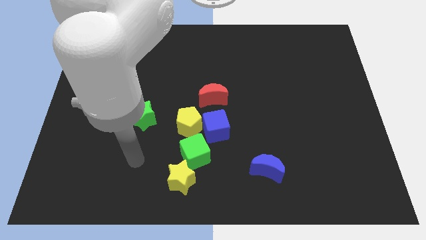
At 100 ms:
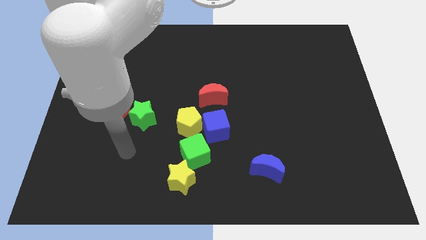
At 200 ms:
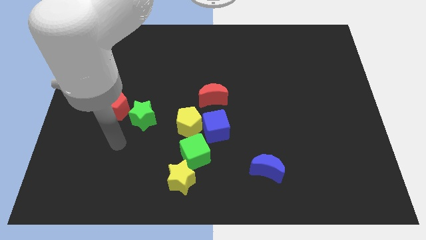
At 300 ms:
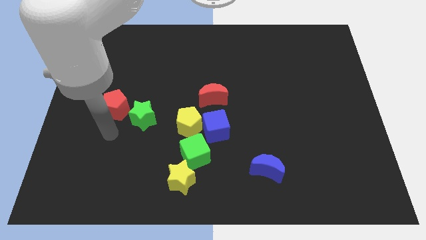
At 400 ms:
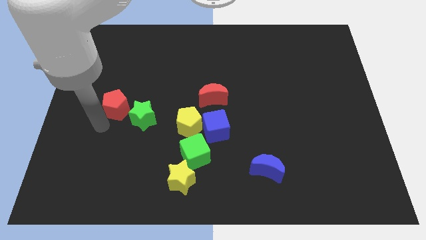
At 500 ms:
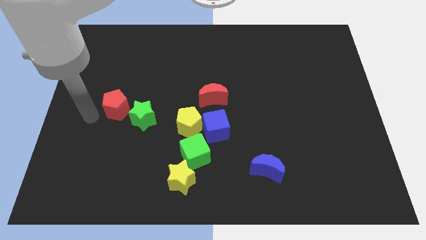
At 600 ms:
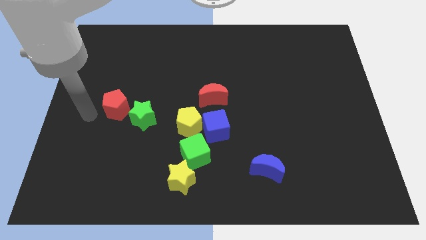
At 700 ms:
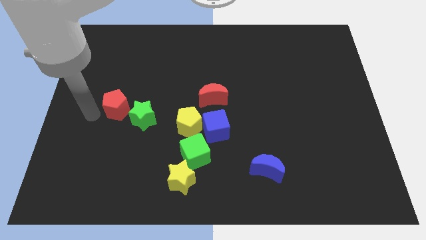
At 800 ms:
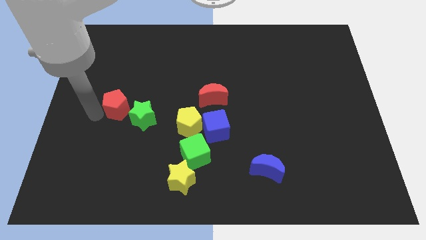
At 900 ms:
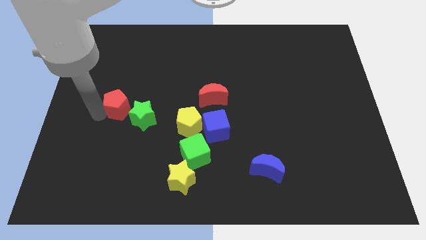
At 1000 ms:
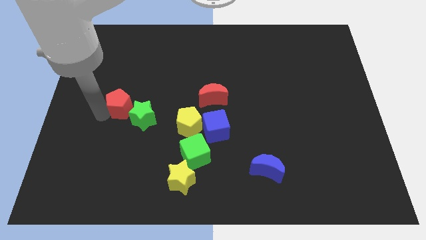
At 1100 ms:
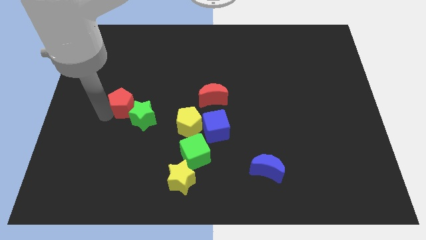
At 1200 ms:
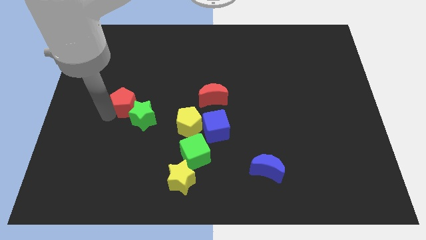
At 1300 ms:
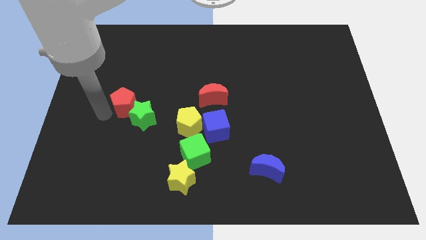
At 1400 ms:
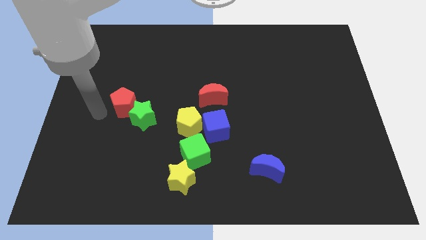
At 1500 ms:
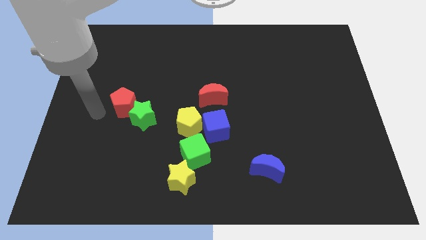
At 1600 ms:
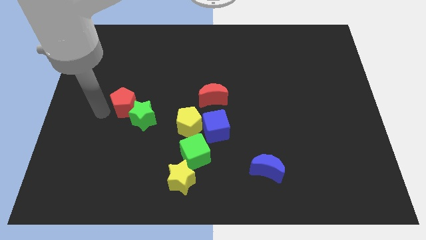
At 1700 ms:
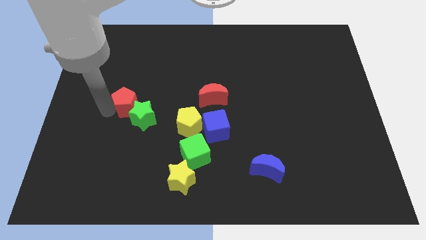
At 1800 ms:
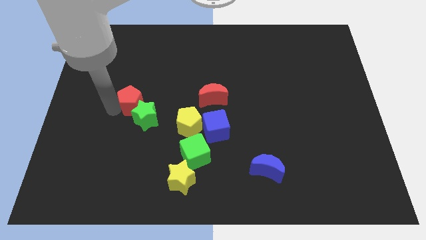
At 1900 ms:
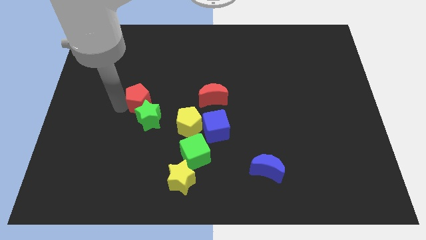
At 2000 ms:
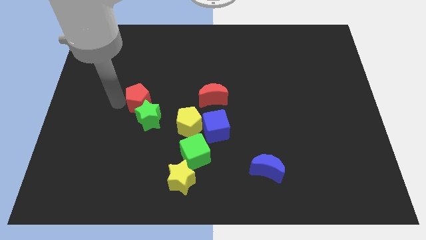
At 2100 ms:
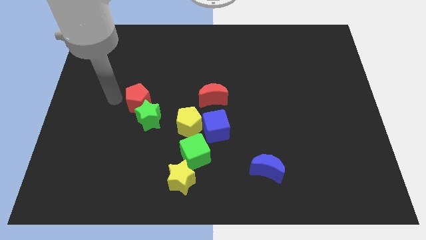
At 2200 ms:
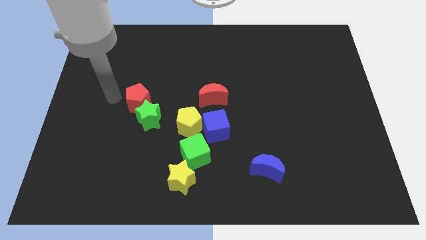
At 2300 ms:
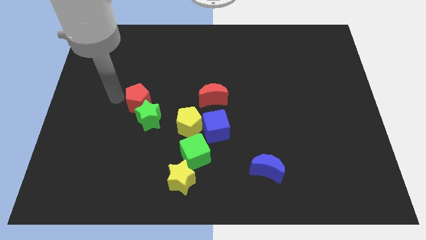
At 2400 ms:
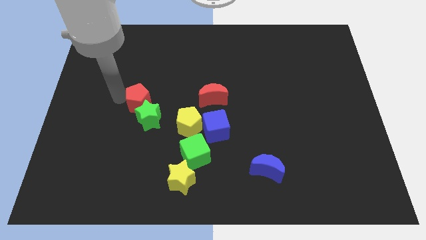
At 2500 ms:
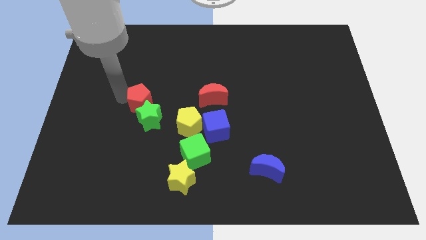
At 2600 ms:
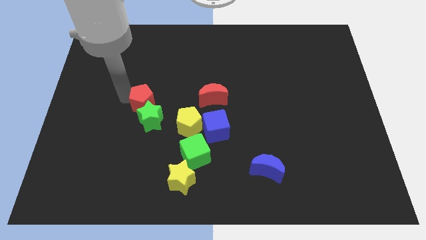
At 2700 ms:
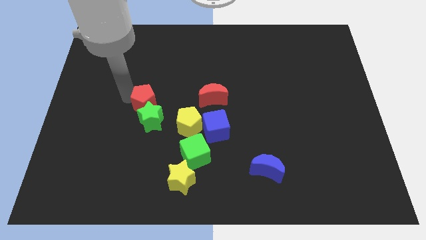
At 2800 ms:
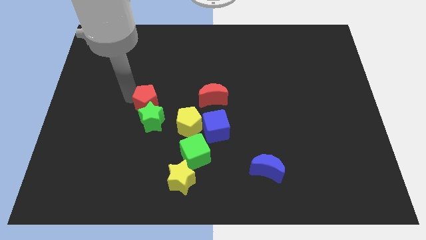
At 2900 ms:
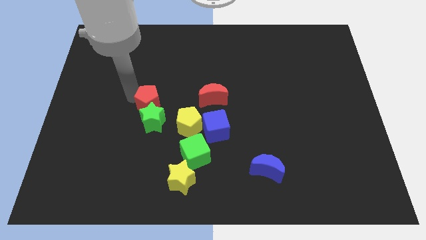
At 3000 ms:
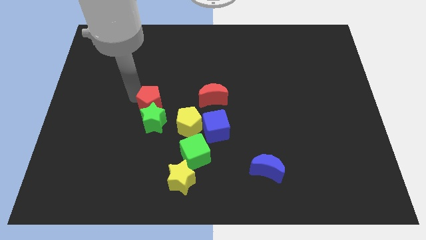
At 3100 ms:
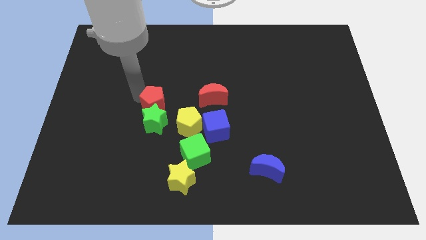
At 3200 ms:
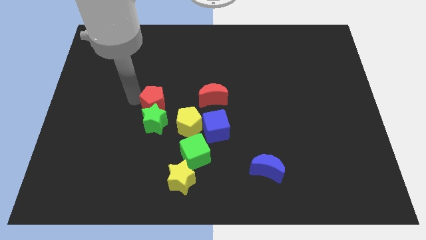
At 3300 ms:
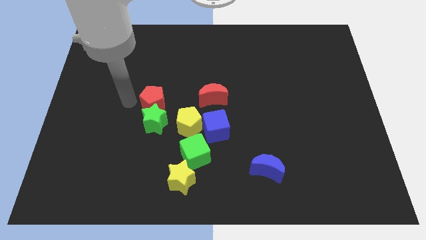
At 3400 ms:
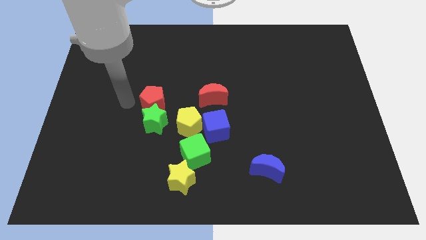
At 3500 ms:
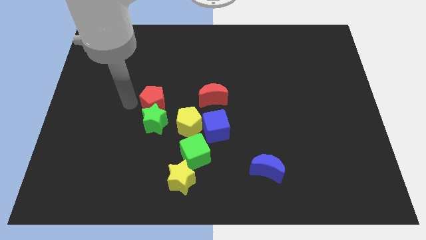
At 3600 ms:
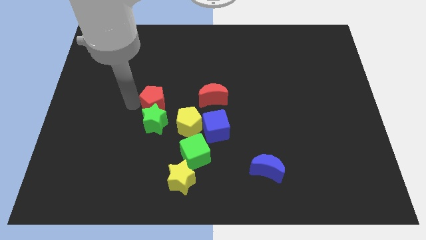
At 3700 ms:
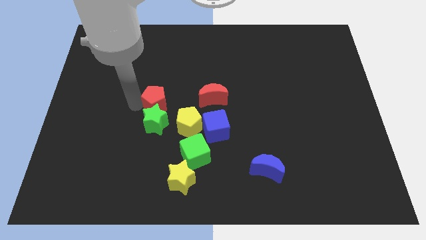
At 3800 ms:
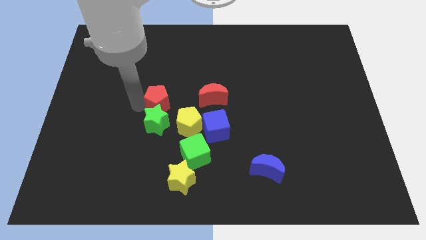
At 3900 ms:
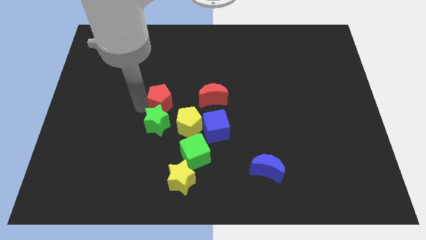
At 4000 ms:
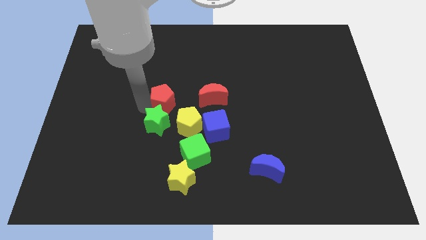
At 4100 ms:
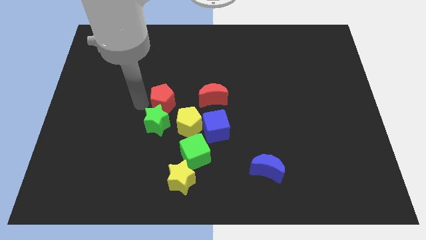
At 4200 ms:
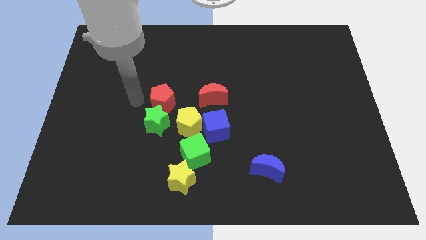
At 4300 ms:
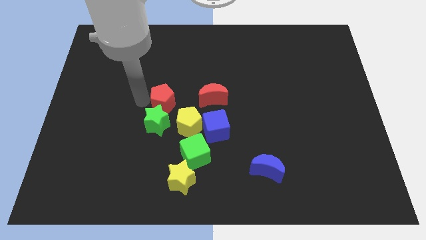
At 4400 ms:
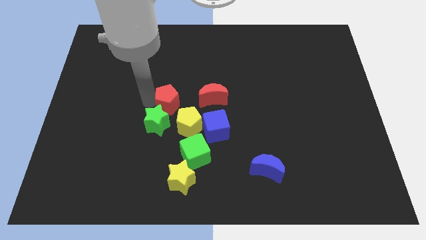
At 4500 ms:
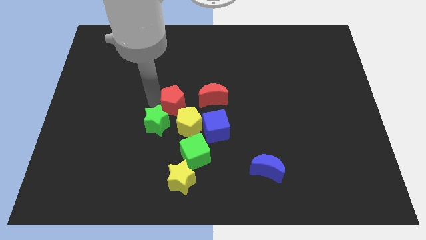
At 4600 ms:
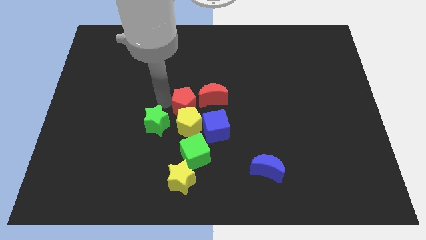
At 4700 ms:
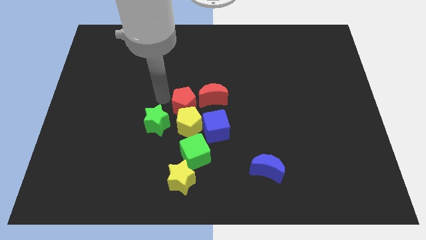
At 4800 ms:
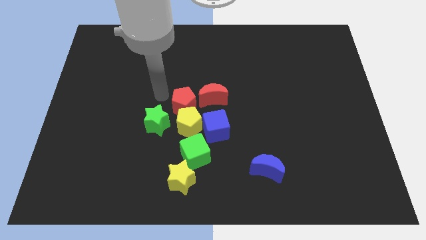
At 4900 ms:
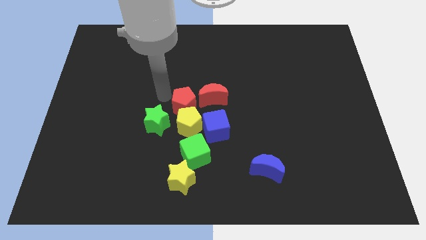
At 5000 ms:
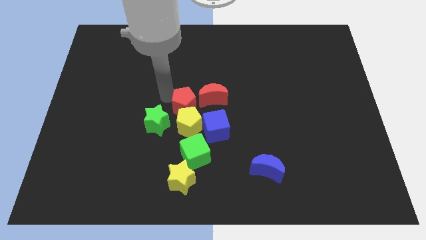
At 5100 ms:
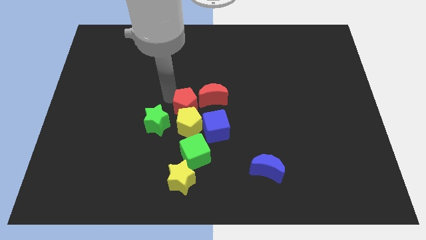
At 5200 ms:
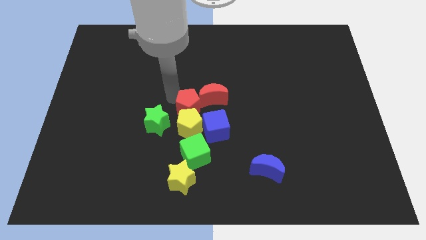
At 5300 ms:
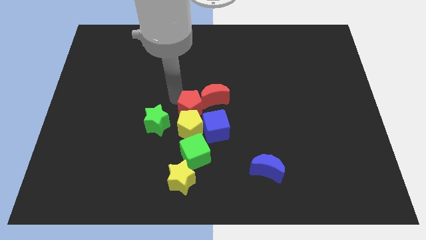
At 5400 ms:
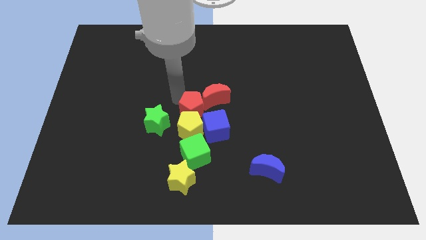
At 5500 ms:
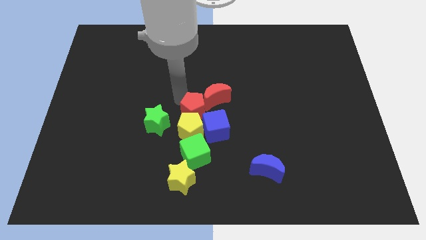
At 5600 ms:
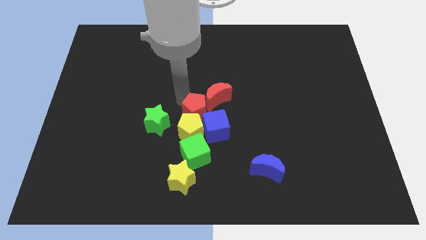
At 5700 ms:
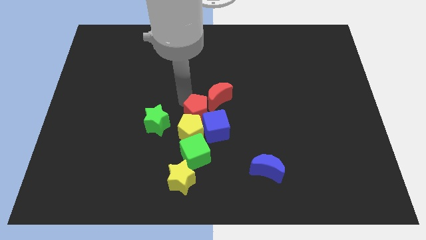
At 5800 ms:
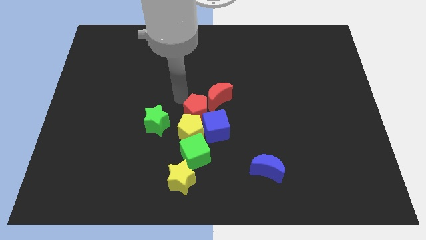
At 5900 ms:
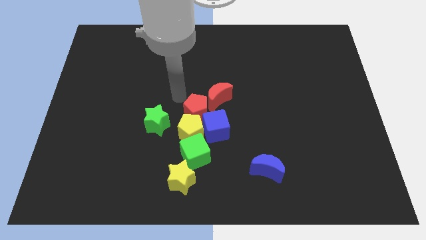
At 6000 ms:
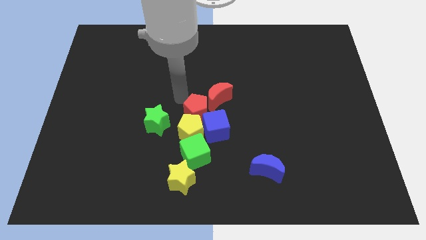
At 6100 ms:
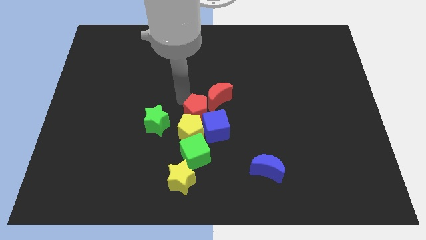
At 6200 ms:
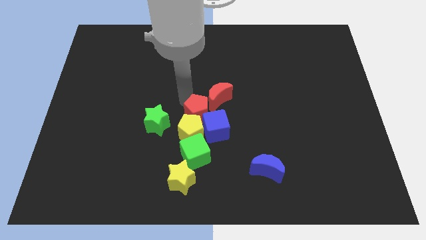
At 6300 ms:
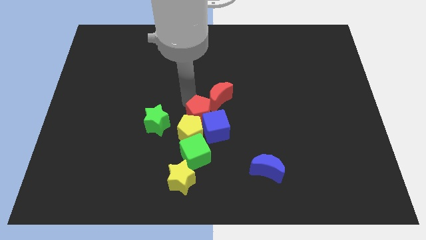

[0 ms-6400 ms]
slide the red pentagon next to the blue cube
